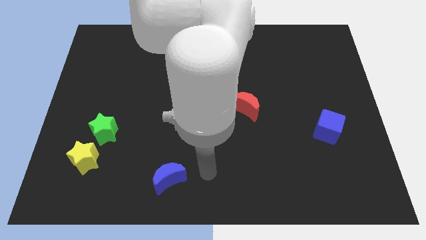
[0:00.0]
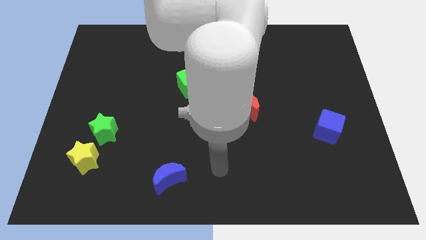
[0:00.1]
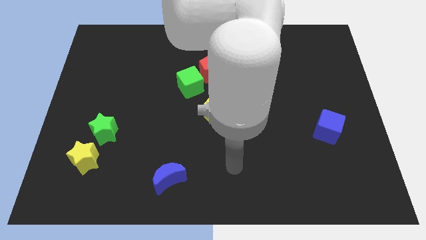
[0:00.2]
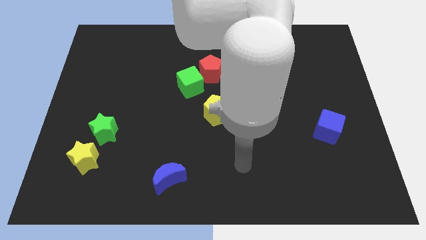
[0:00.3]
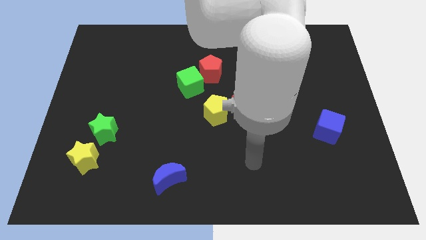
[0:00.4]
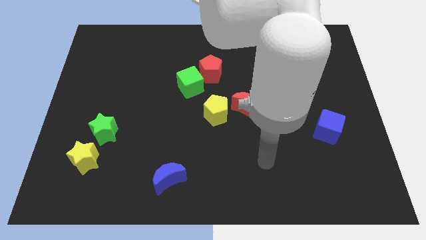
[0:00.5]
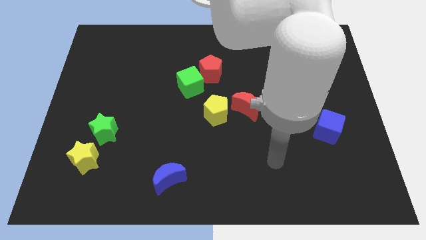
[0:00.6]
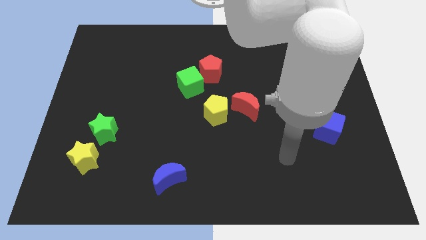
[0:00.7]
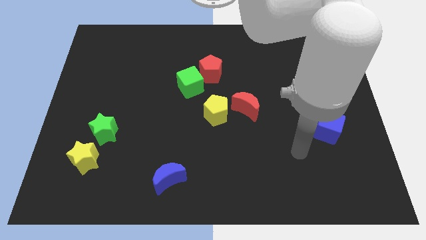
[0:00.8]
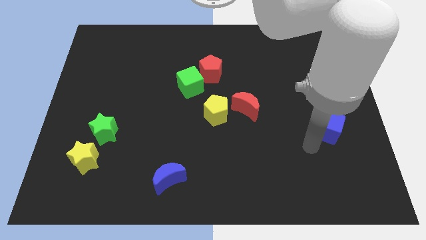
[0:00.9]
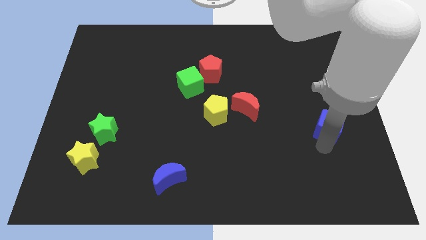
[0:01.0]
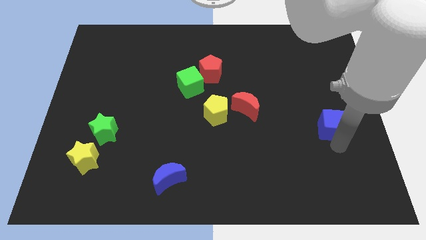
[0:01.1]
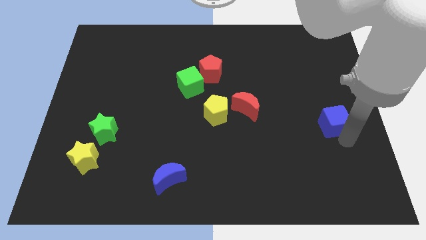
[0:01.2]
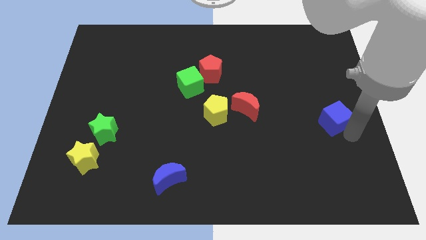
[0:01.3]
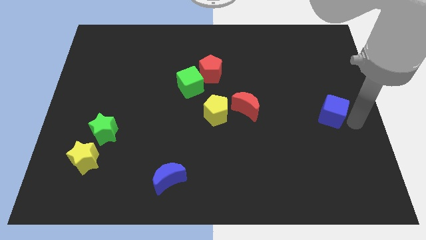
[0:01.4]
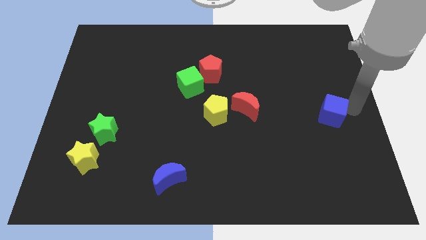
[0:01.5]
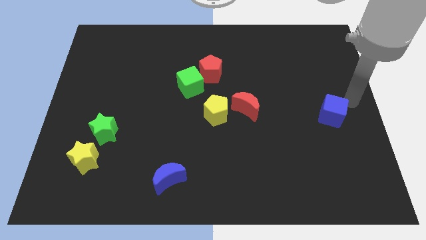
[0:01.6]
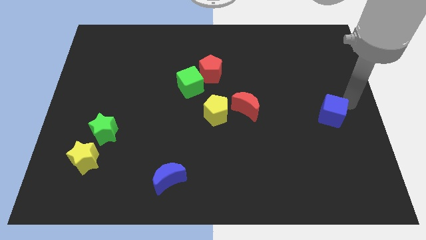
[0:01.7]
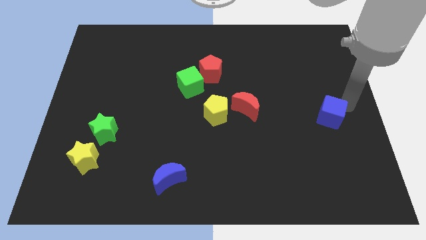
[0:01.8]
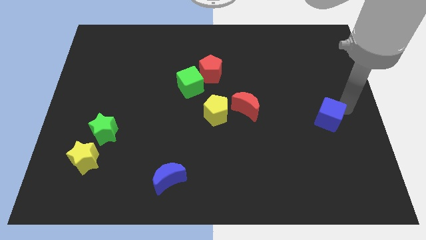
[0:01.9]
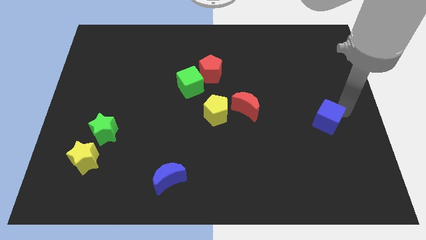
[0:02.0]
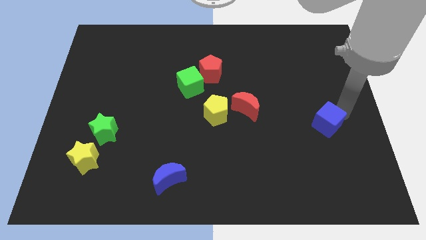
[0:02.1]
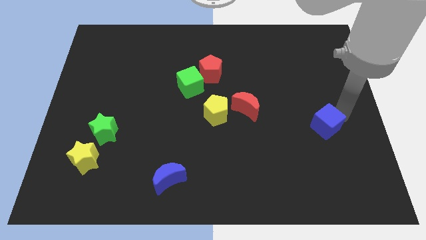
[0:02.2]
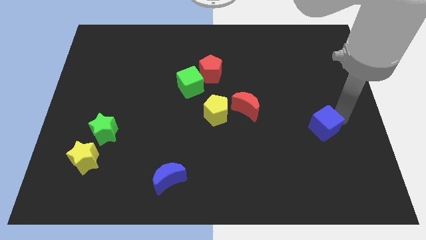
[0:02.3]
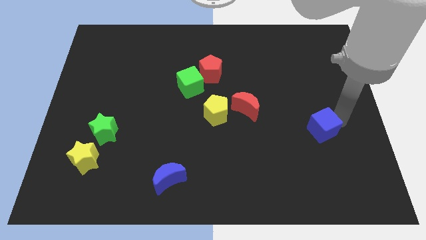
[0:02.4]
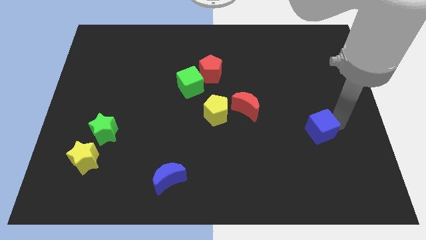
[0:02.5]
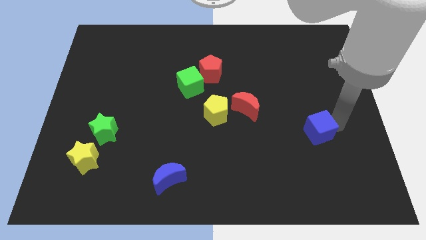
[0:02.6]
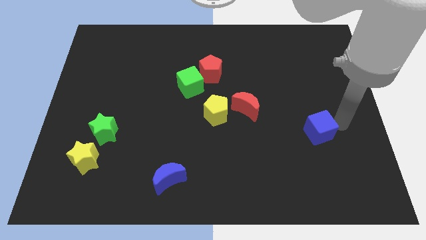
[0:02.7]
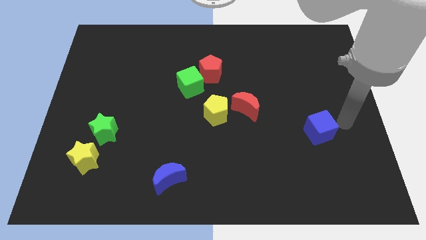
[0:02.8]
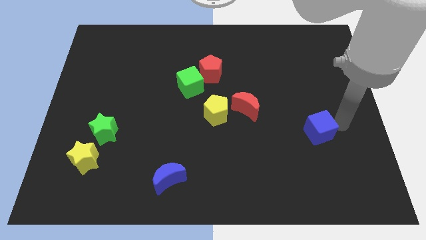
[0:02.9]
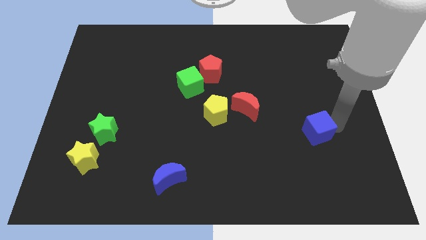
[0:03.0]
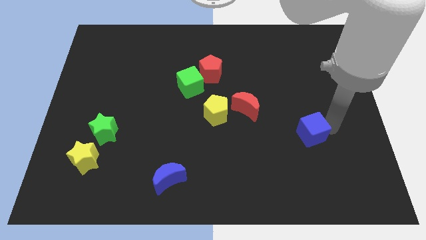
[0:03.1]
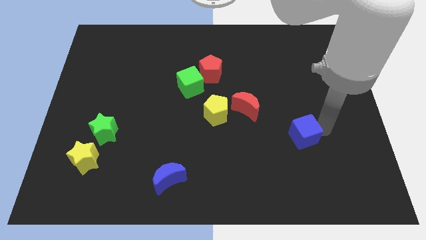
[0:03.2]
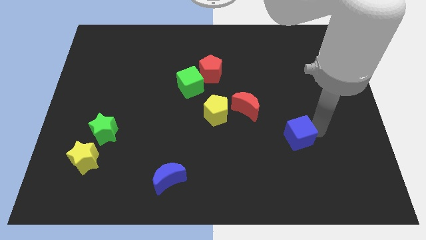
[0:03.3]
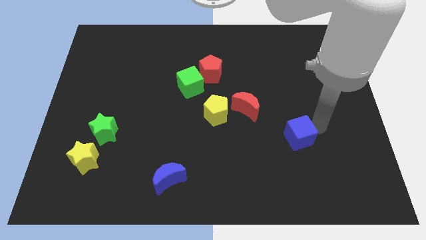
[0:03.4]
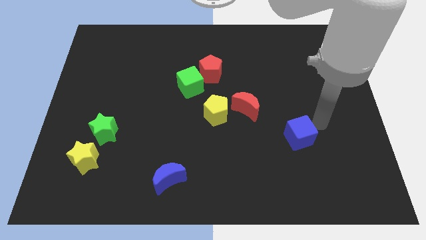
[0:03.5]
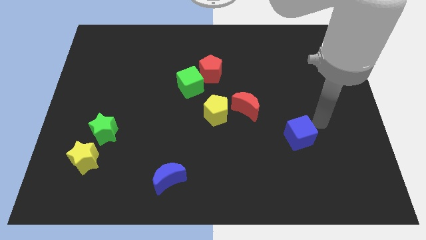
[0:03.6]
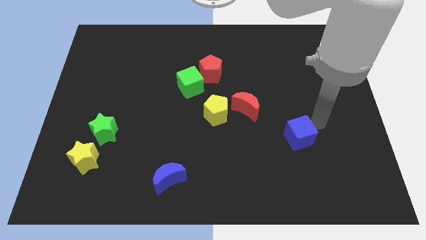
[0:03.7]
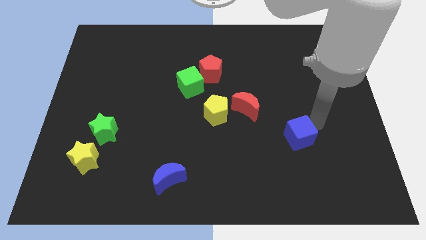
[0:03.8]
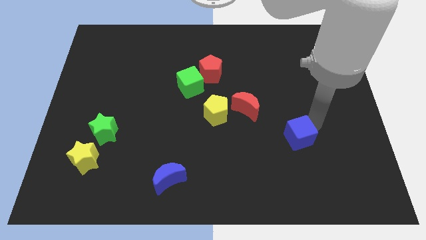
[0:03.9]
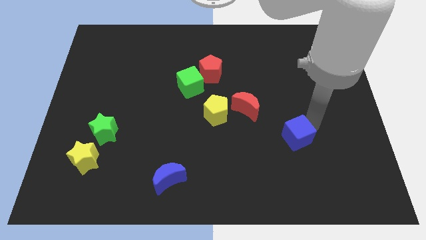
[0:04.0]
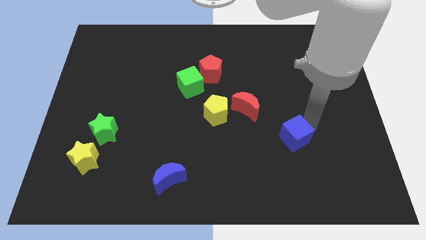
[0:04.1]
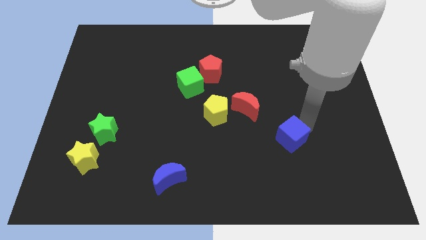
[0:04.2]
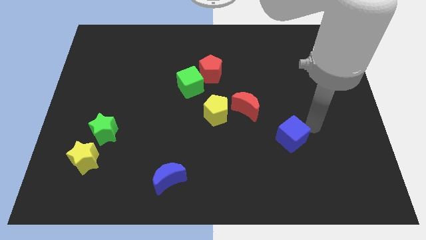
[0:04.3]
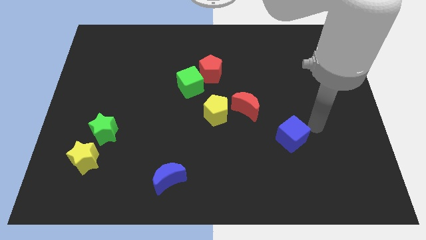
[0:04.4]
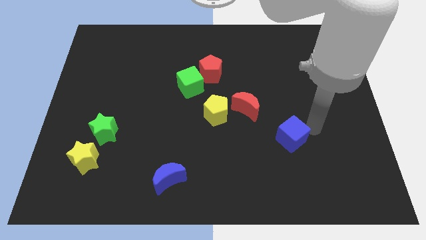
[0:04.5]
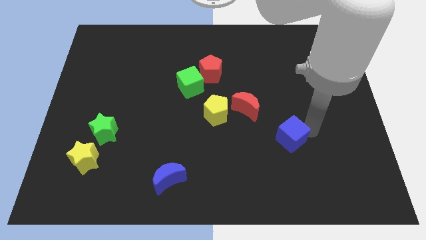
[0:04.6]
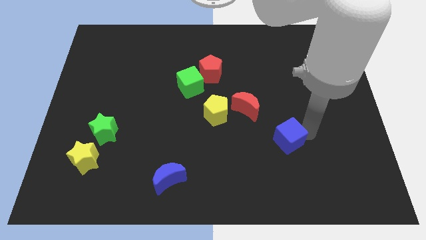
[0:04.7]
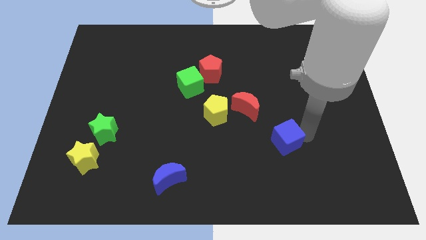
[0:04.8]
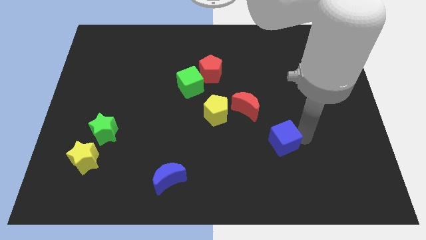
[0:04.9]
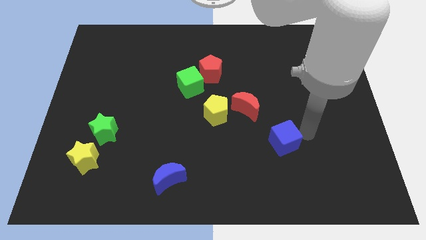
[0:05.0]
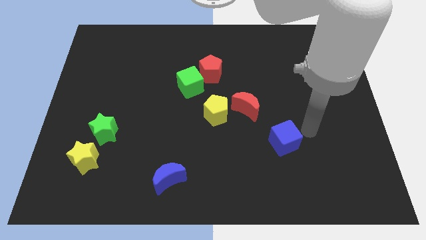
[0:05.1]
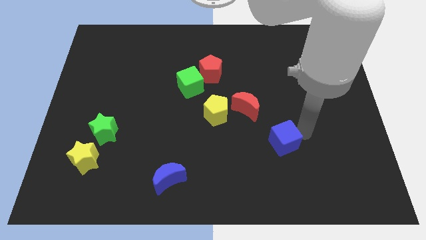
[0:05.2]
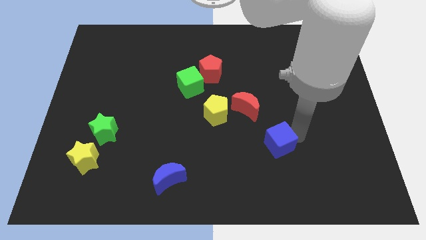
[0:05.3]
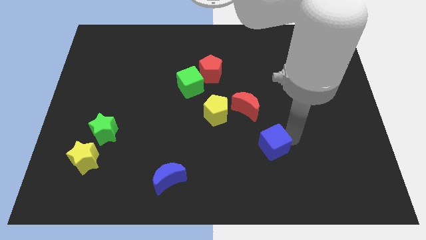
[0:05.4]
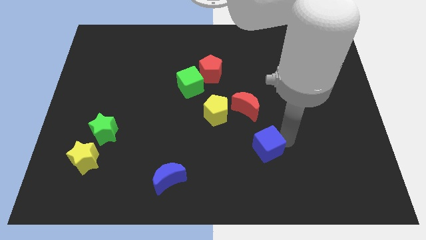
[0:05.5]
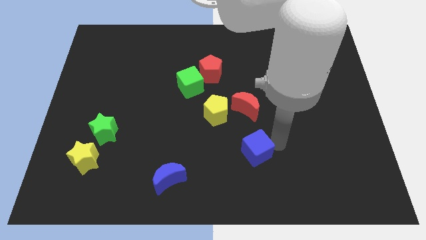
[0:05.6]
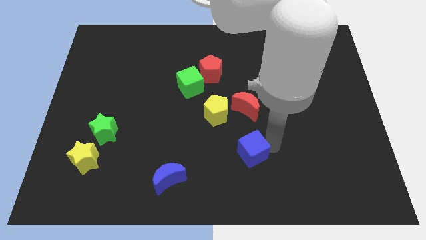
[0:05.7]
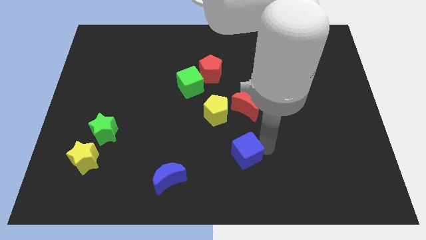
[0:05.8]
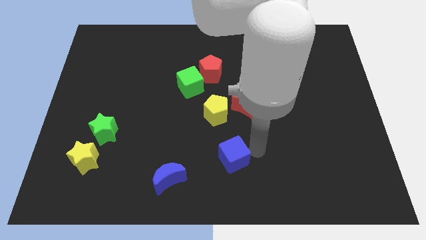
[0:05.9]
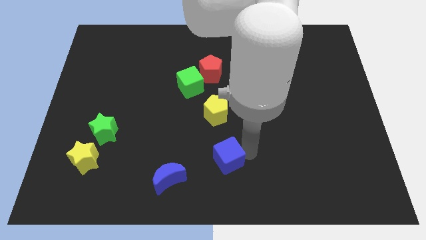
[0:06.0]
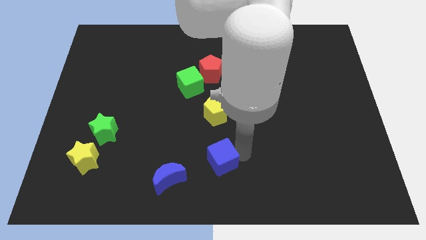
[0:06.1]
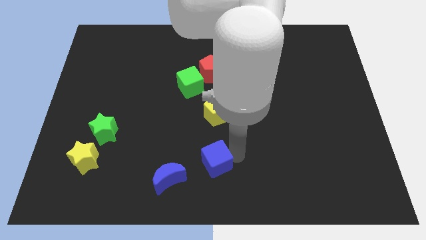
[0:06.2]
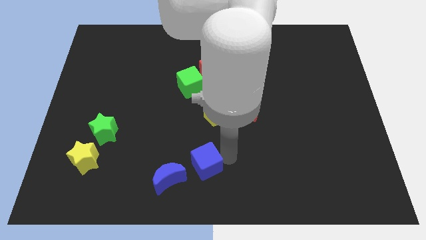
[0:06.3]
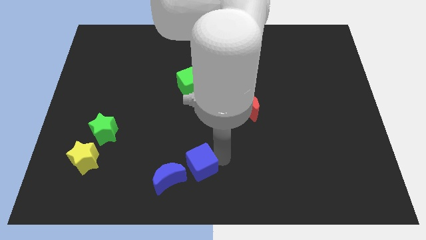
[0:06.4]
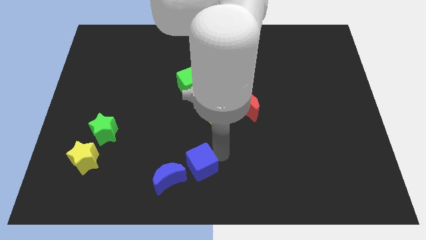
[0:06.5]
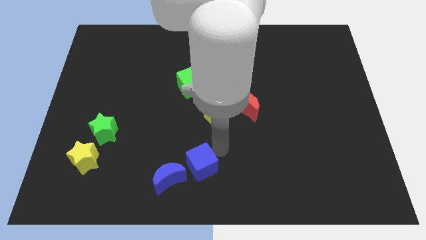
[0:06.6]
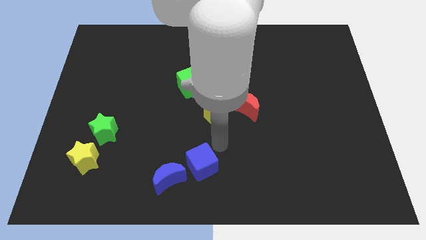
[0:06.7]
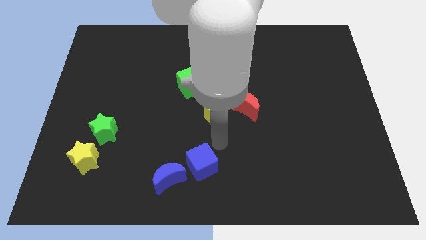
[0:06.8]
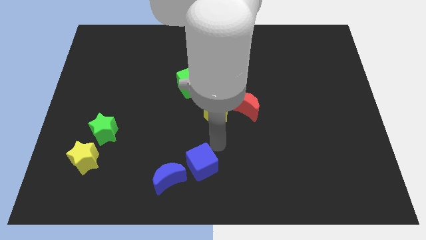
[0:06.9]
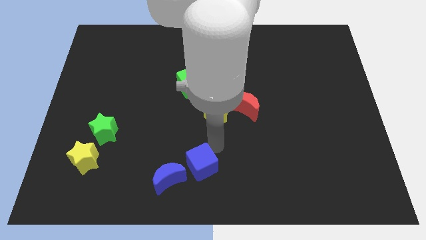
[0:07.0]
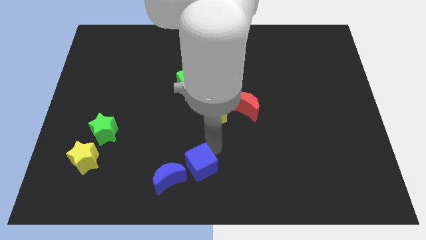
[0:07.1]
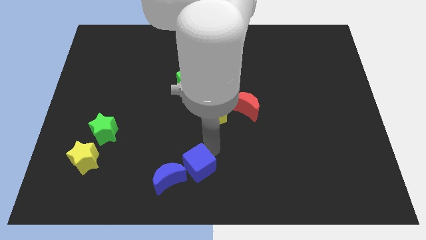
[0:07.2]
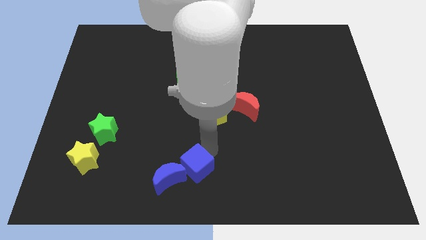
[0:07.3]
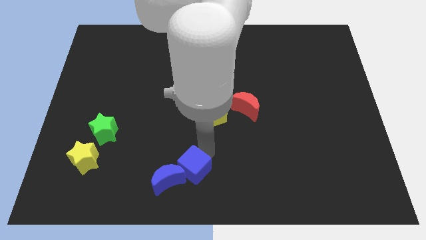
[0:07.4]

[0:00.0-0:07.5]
push the blue cube next to the blue moon
